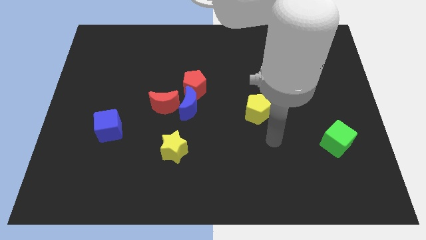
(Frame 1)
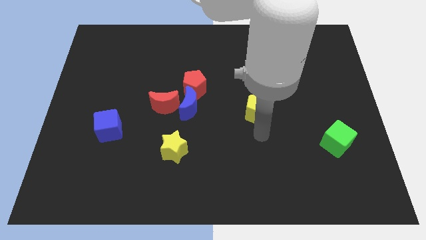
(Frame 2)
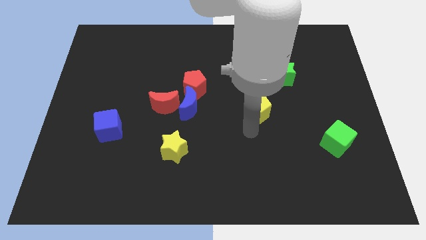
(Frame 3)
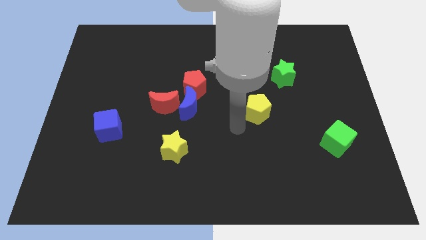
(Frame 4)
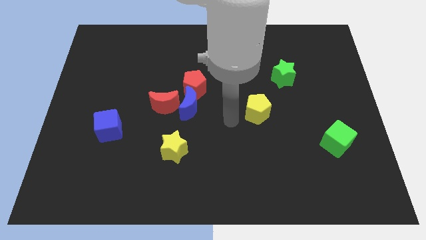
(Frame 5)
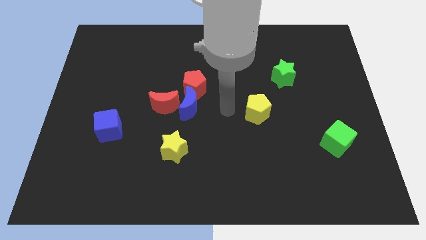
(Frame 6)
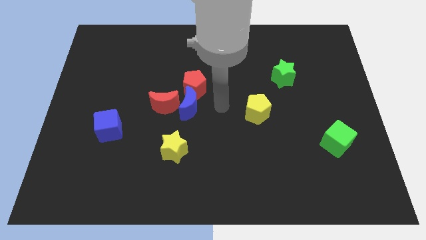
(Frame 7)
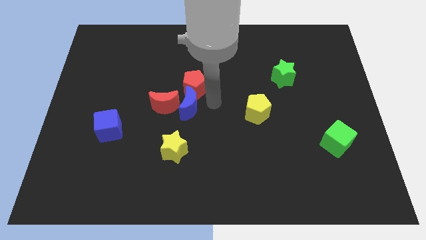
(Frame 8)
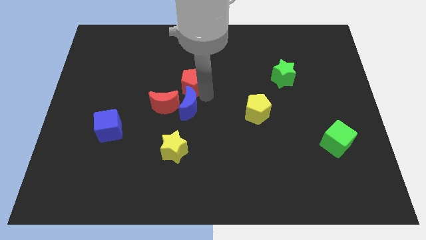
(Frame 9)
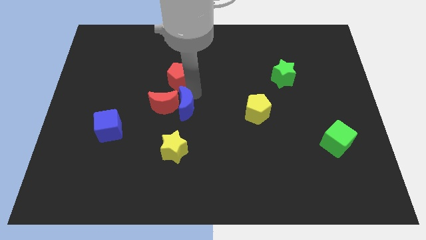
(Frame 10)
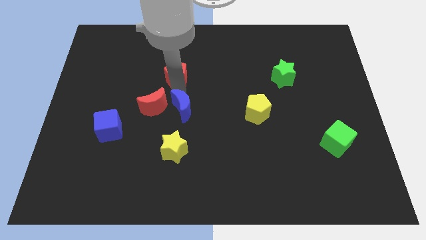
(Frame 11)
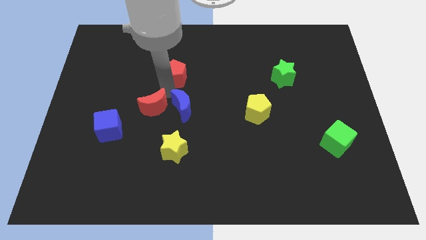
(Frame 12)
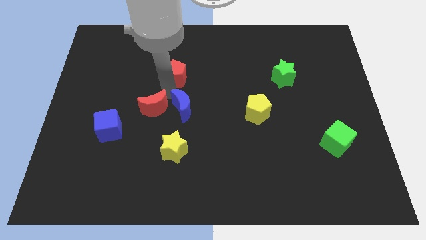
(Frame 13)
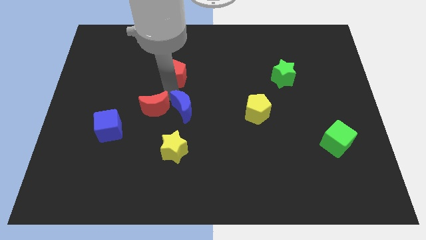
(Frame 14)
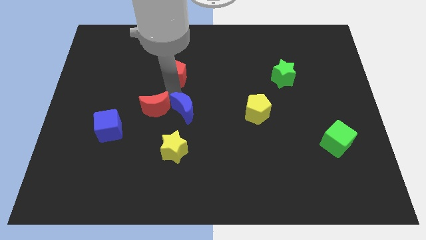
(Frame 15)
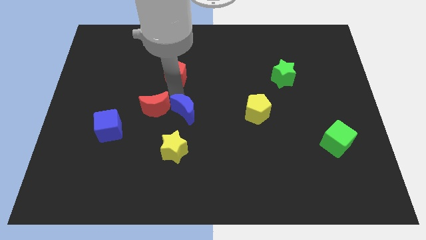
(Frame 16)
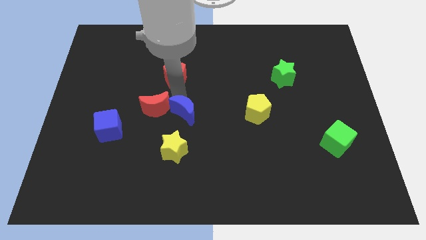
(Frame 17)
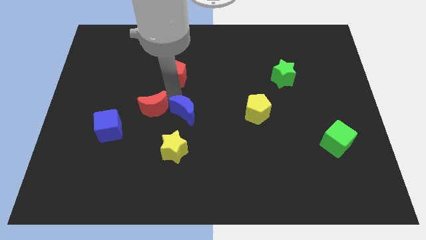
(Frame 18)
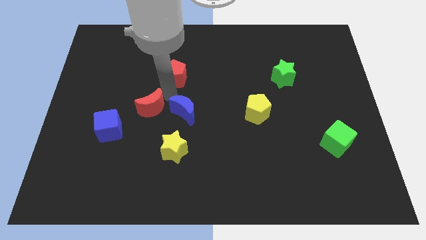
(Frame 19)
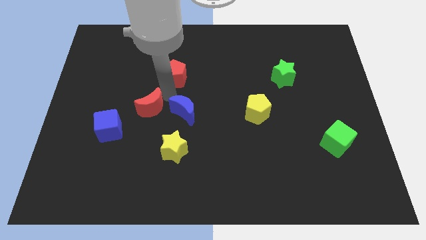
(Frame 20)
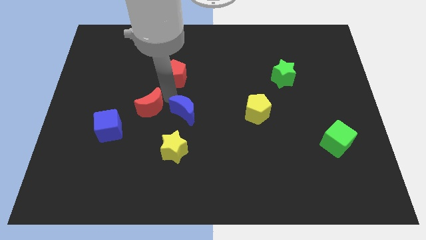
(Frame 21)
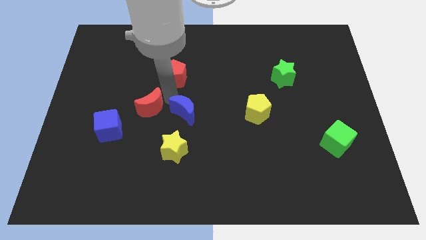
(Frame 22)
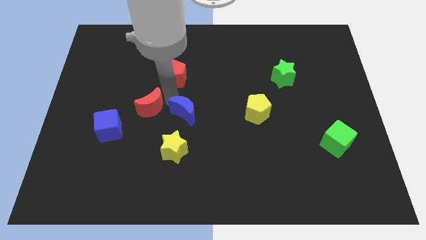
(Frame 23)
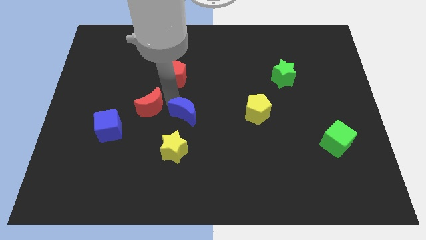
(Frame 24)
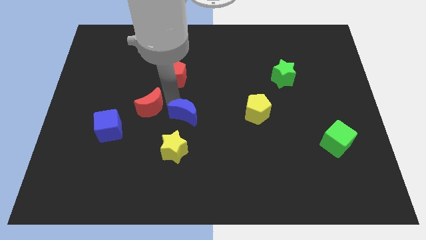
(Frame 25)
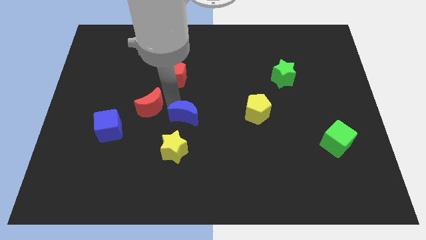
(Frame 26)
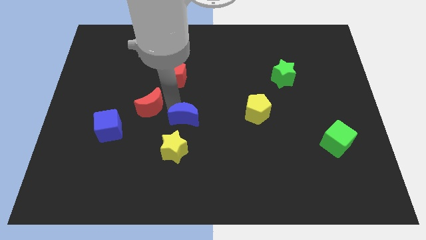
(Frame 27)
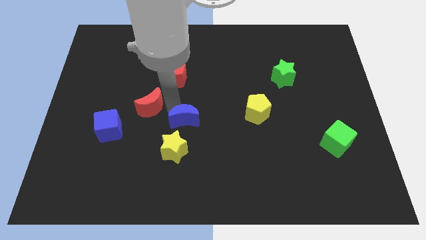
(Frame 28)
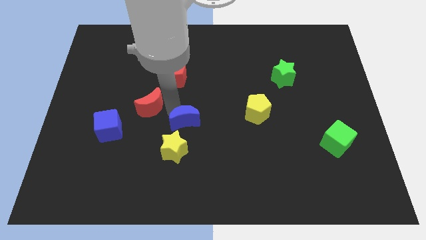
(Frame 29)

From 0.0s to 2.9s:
pull the blue moon apart from the red moon and red pentagon

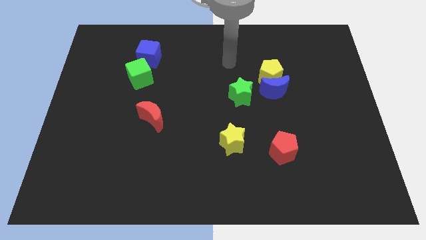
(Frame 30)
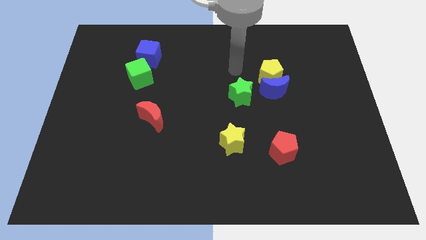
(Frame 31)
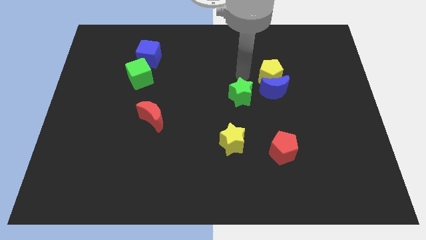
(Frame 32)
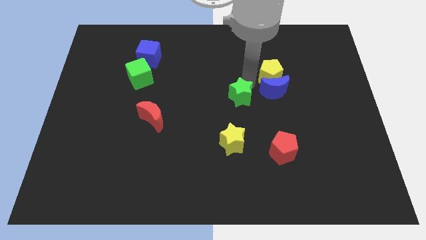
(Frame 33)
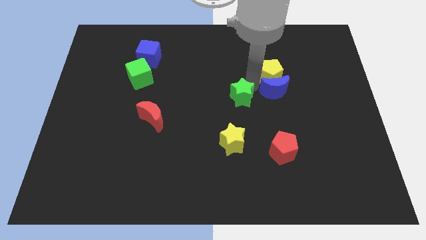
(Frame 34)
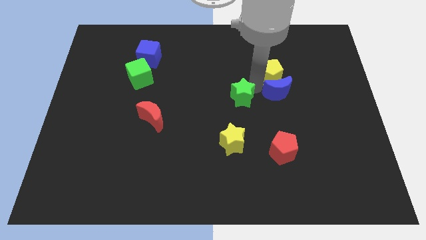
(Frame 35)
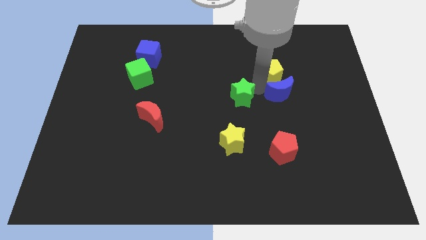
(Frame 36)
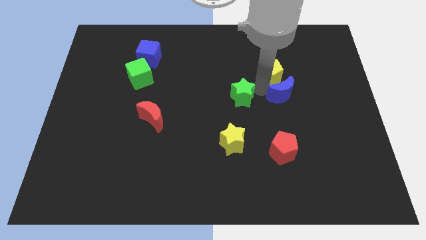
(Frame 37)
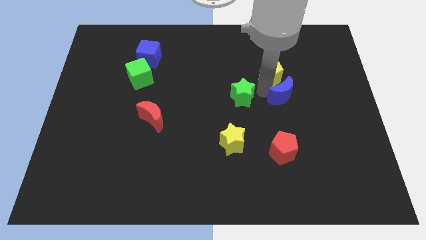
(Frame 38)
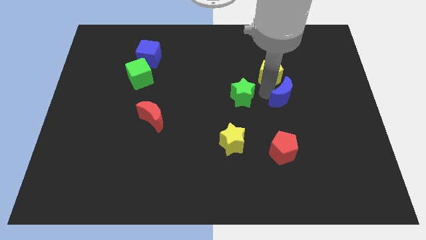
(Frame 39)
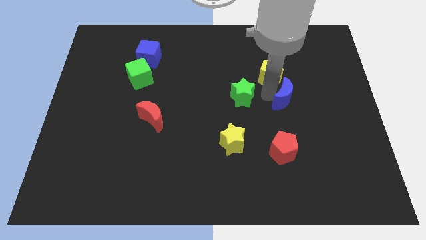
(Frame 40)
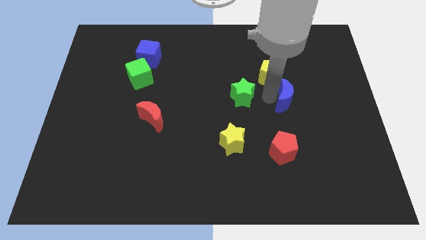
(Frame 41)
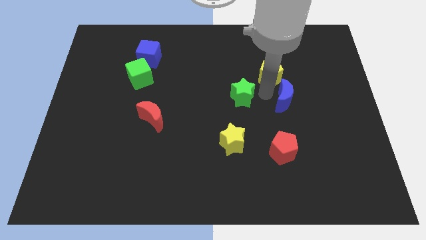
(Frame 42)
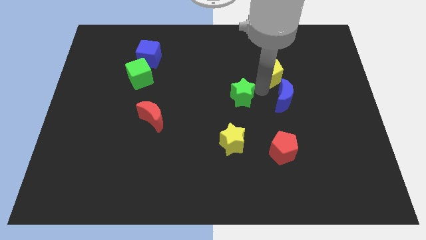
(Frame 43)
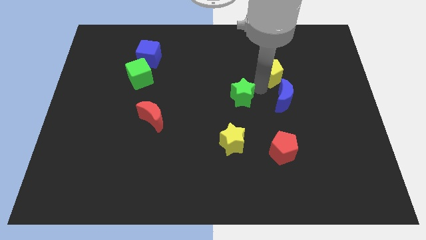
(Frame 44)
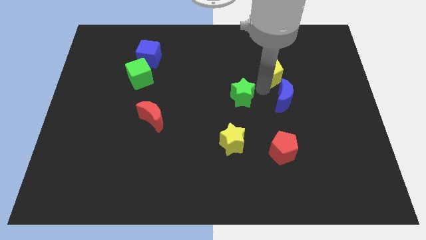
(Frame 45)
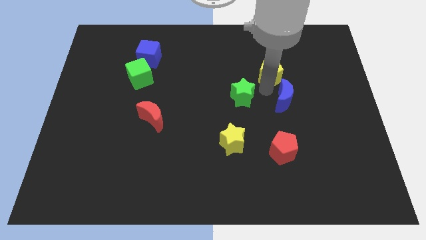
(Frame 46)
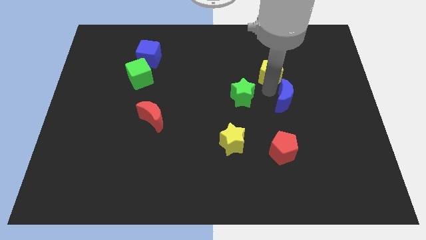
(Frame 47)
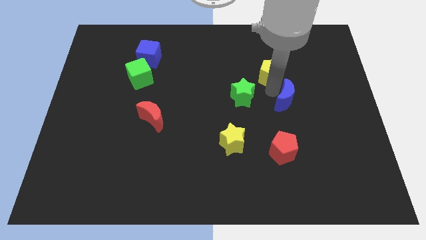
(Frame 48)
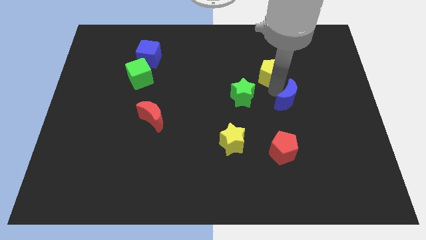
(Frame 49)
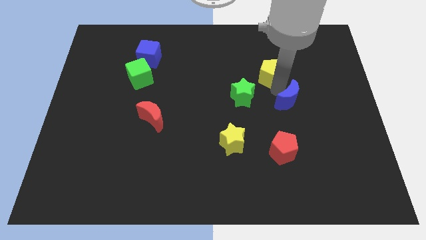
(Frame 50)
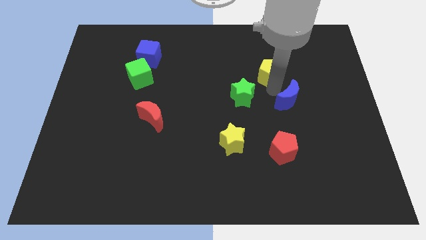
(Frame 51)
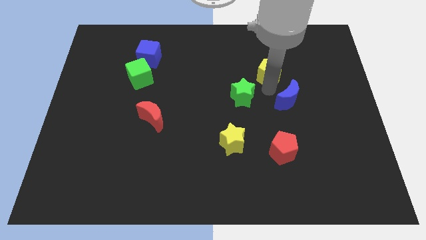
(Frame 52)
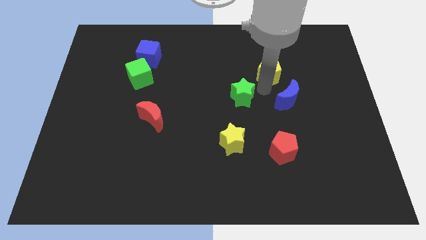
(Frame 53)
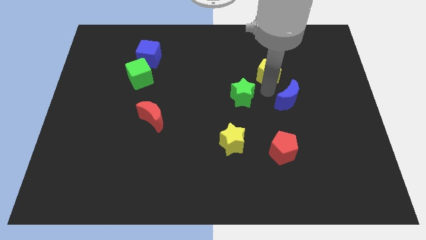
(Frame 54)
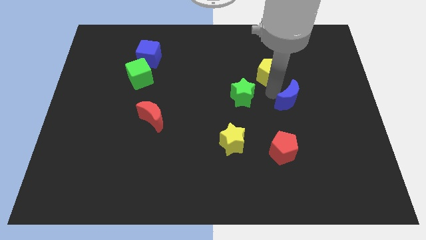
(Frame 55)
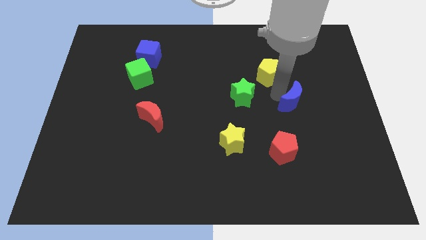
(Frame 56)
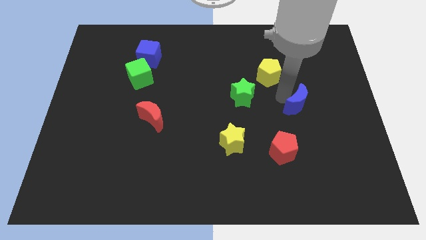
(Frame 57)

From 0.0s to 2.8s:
pull the blue moon apart from the yellow pentagon and green star

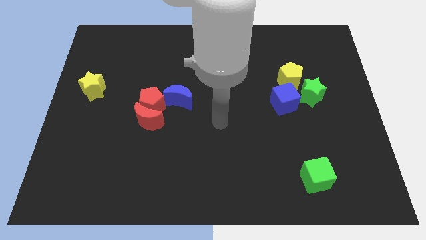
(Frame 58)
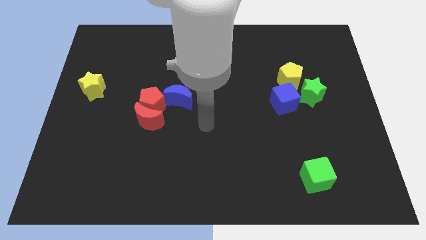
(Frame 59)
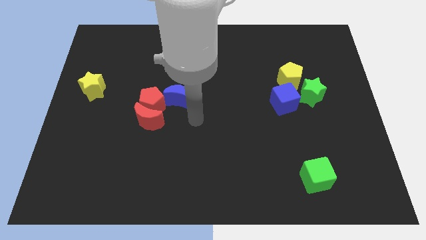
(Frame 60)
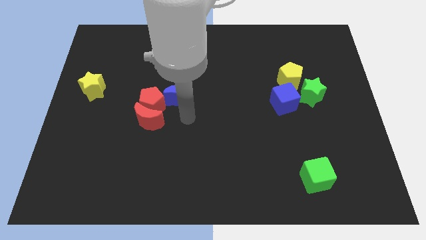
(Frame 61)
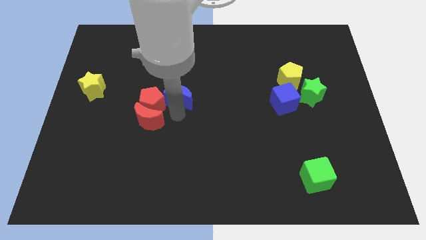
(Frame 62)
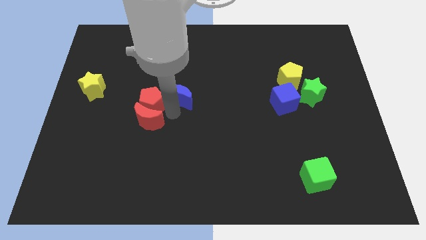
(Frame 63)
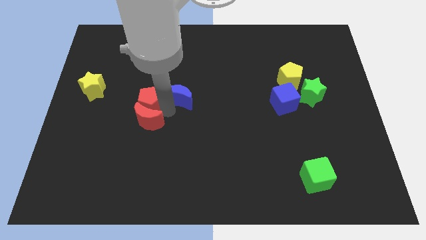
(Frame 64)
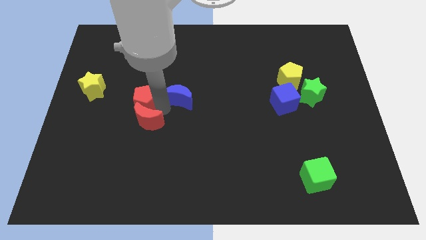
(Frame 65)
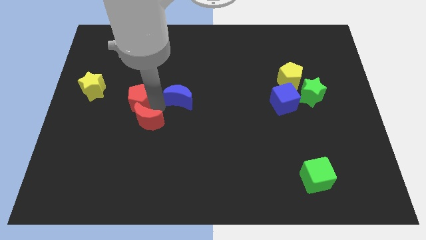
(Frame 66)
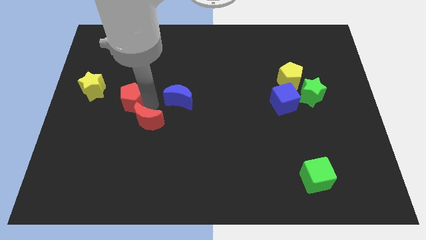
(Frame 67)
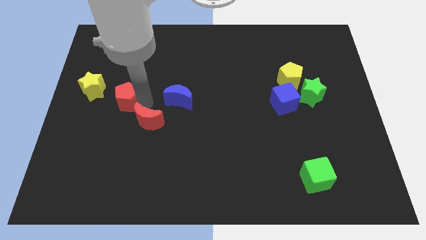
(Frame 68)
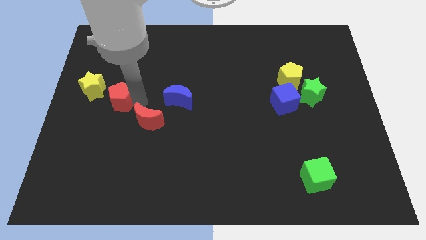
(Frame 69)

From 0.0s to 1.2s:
separate the red pentagon from the red moon and blue moon

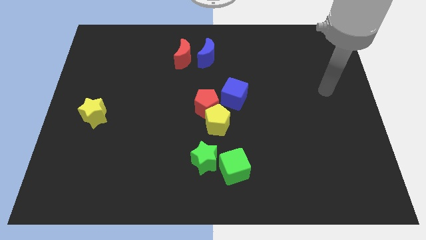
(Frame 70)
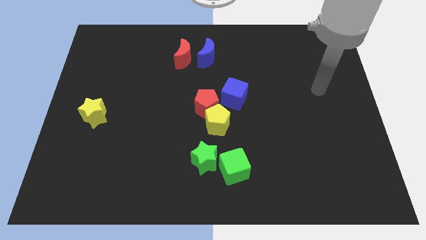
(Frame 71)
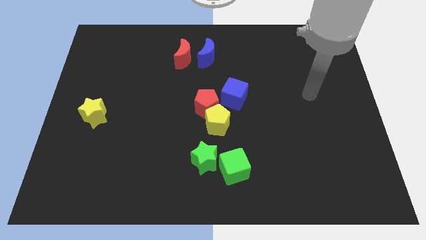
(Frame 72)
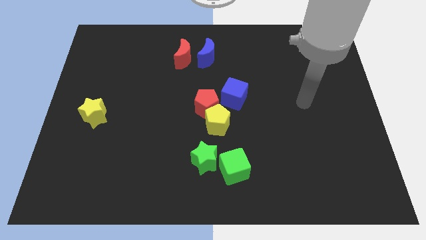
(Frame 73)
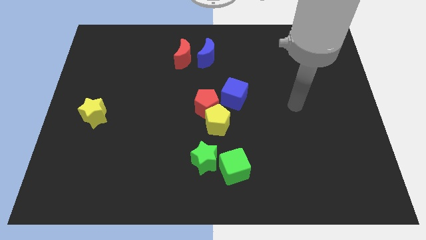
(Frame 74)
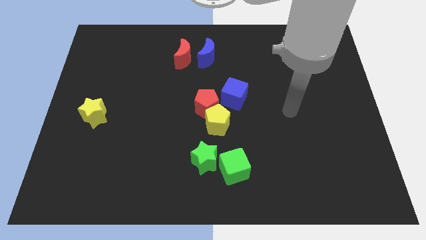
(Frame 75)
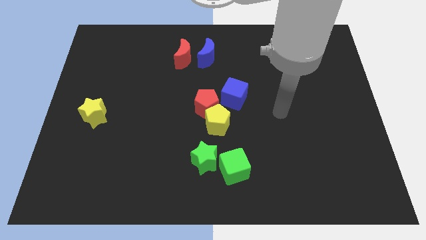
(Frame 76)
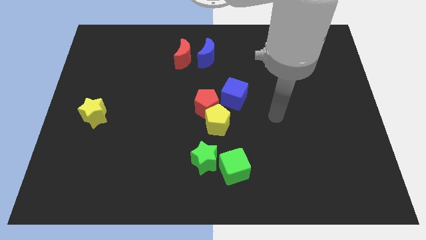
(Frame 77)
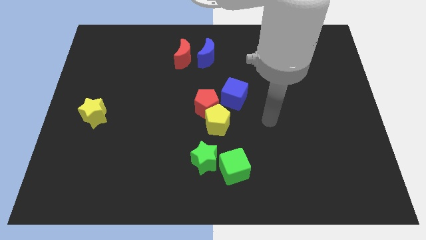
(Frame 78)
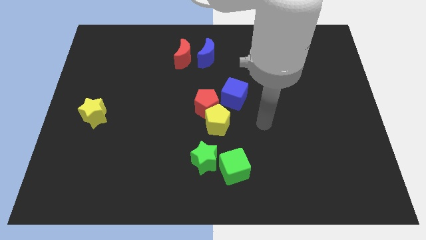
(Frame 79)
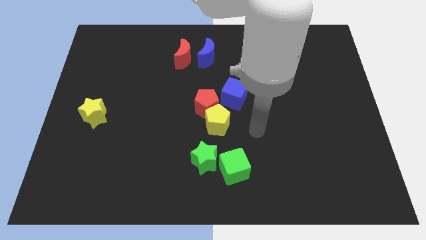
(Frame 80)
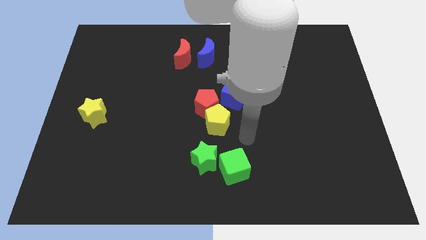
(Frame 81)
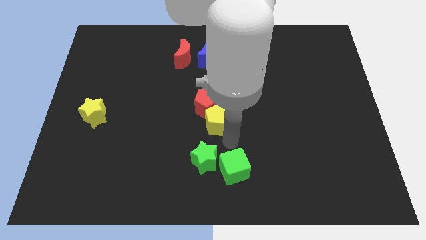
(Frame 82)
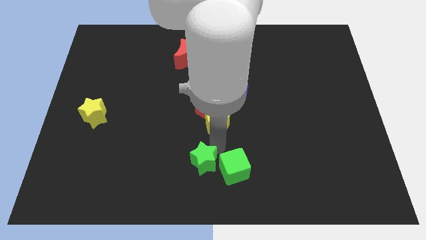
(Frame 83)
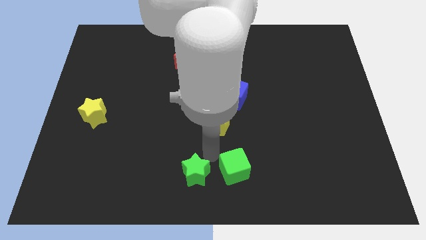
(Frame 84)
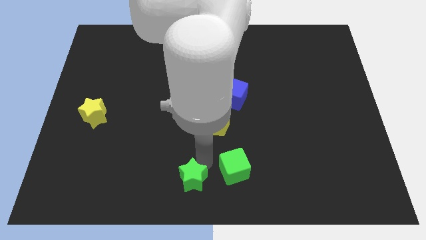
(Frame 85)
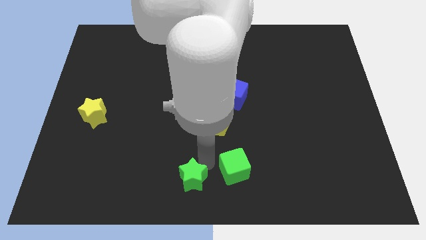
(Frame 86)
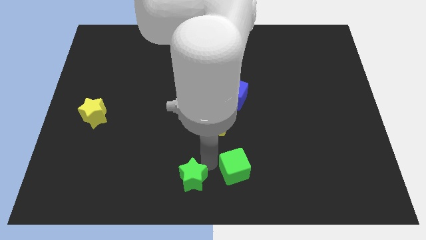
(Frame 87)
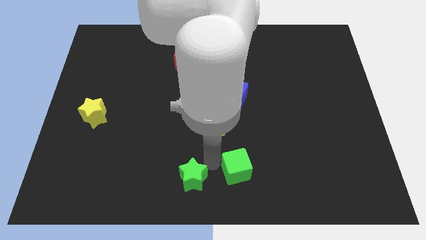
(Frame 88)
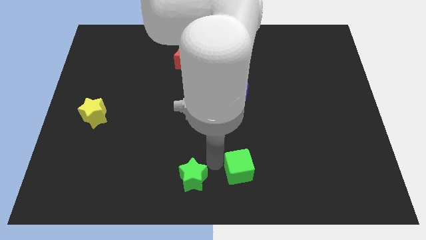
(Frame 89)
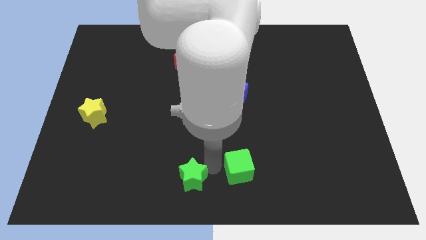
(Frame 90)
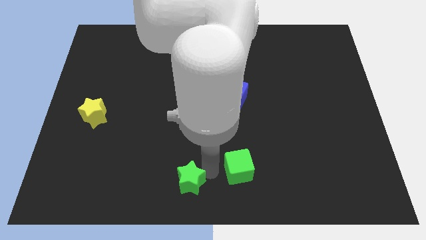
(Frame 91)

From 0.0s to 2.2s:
move the green cube away from the green star

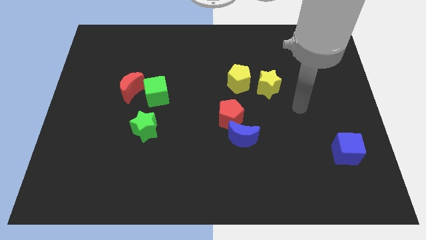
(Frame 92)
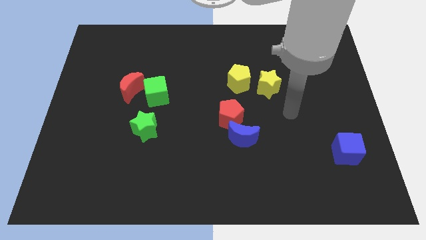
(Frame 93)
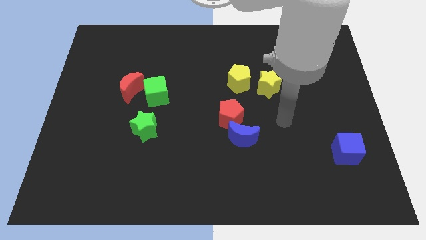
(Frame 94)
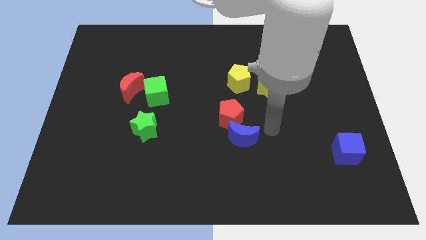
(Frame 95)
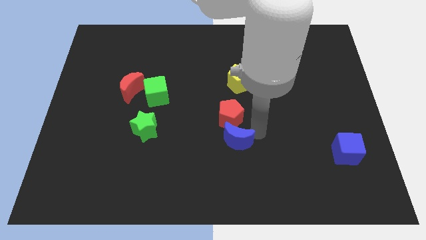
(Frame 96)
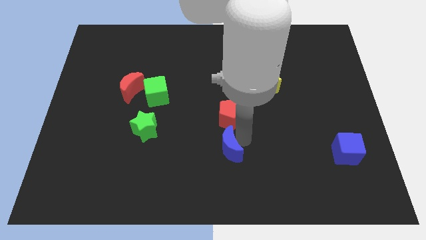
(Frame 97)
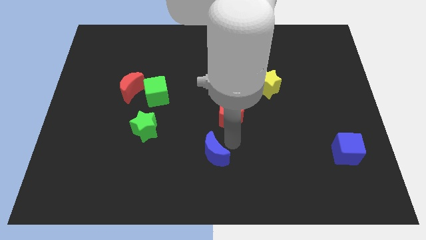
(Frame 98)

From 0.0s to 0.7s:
pull the red pentagon apart from the blue moon
